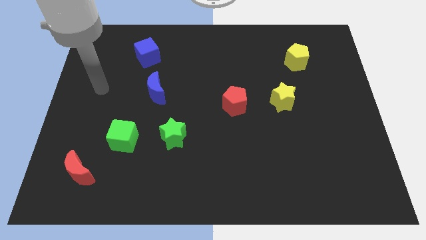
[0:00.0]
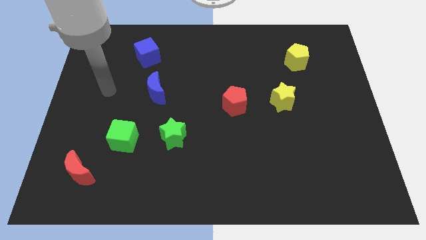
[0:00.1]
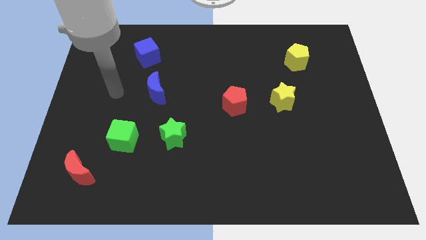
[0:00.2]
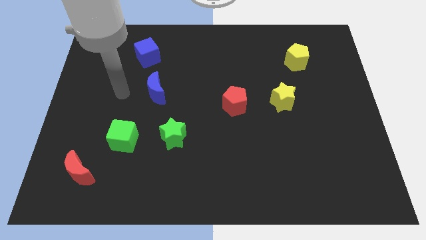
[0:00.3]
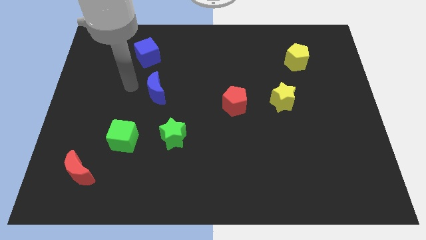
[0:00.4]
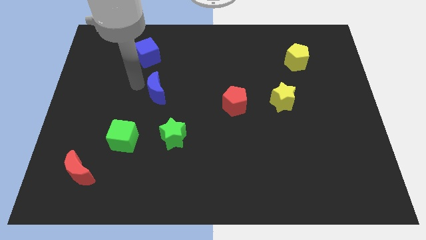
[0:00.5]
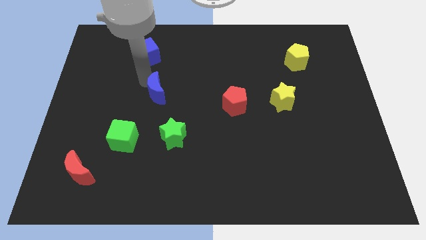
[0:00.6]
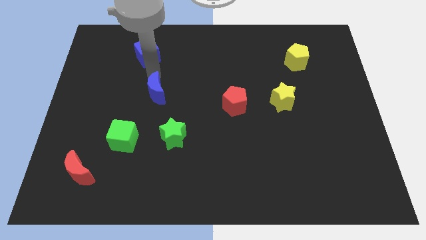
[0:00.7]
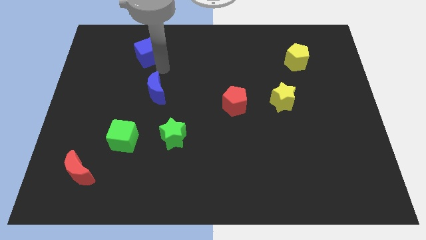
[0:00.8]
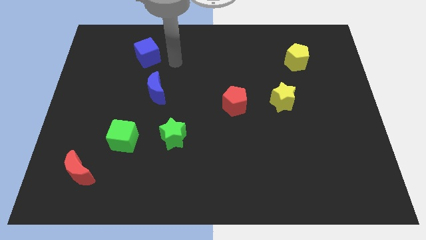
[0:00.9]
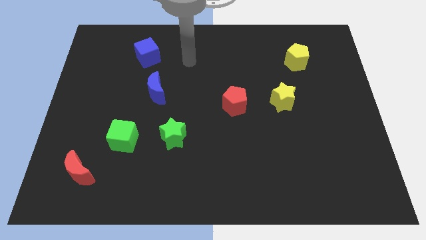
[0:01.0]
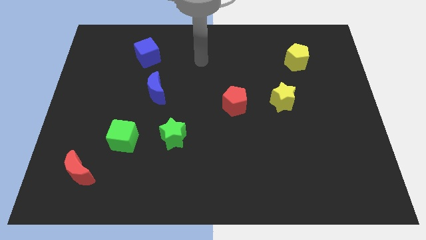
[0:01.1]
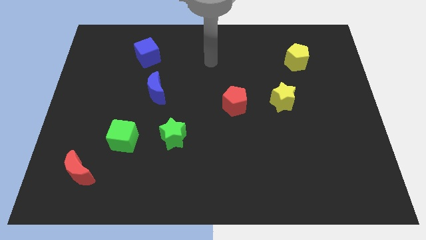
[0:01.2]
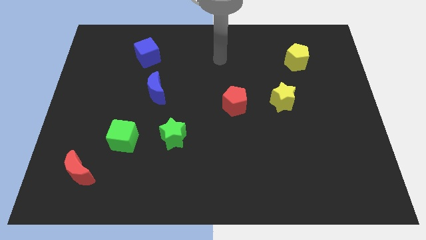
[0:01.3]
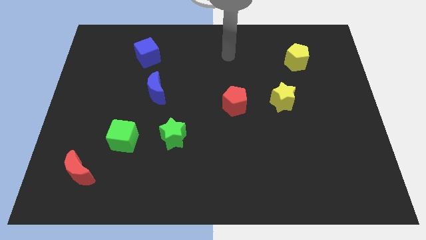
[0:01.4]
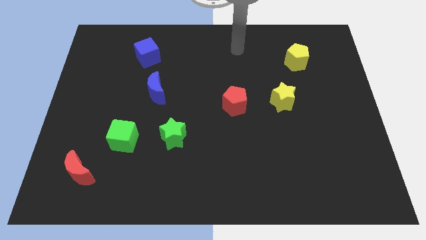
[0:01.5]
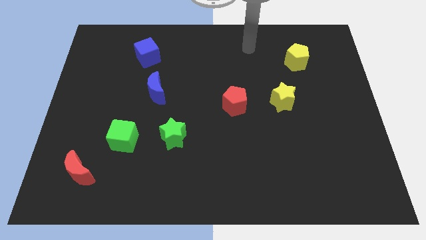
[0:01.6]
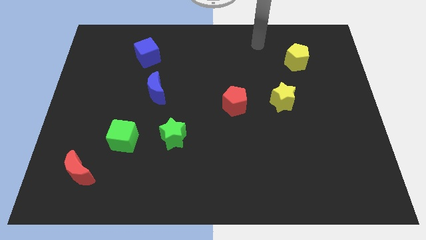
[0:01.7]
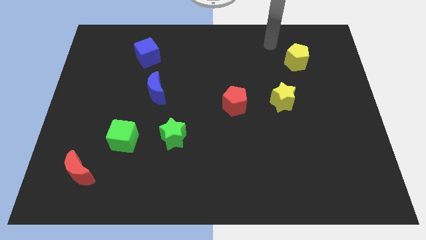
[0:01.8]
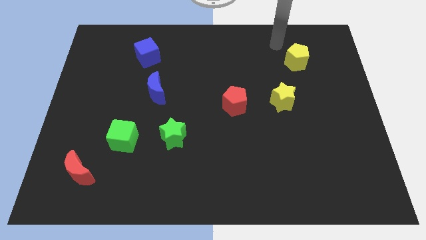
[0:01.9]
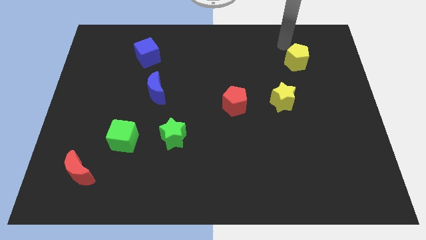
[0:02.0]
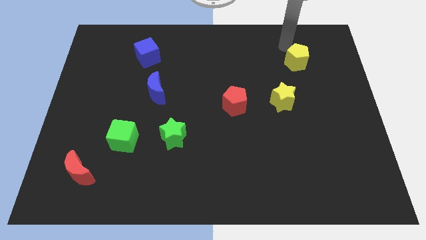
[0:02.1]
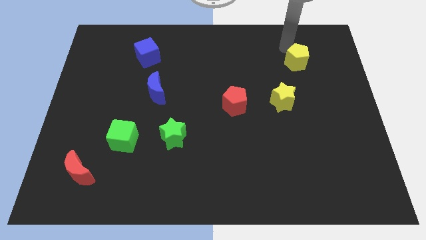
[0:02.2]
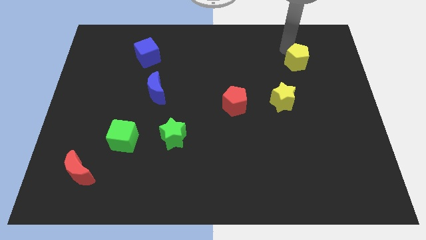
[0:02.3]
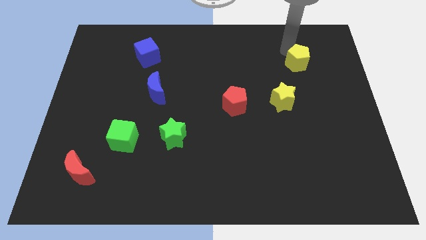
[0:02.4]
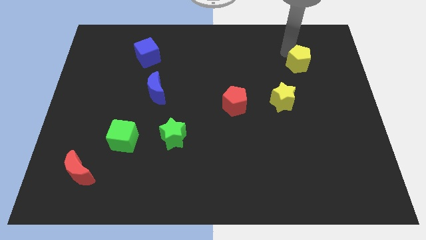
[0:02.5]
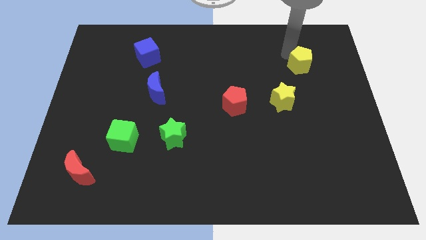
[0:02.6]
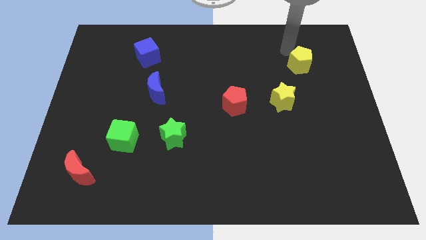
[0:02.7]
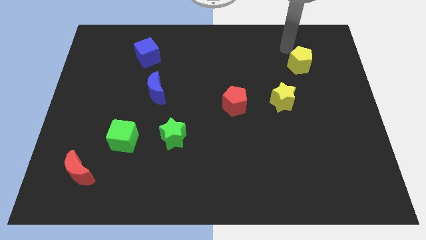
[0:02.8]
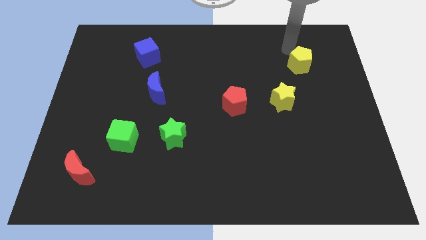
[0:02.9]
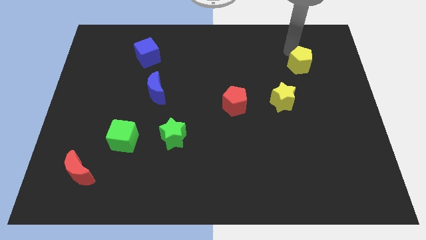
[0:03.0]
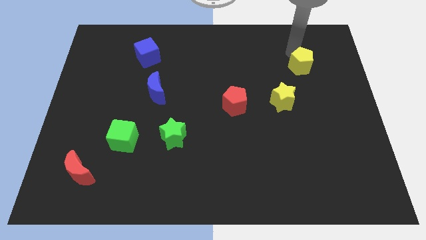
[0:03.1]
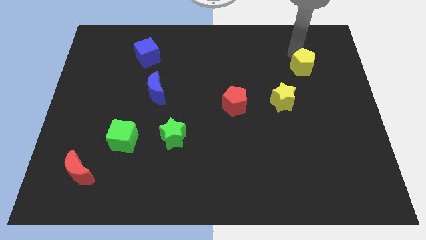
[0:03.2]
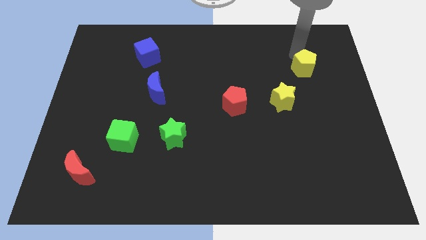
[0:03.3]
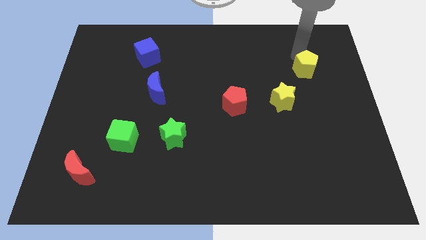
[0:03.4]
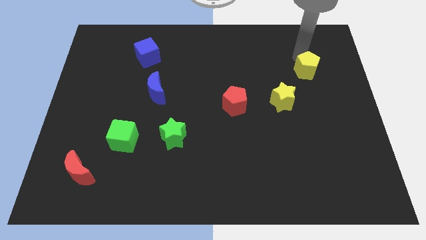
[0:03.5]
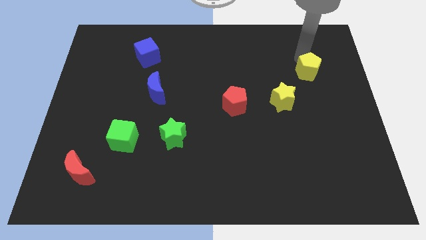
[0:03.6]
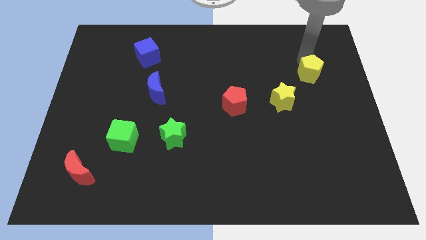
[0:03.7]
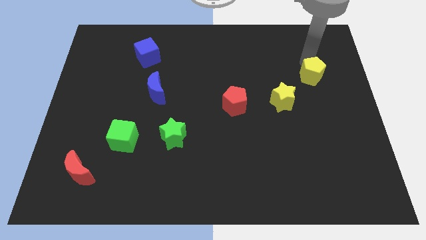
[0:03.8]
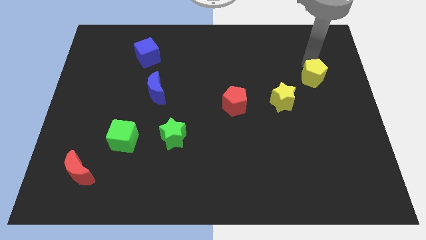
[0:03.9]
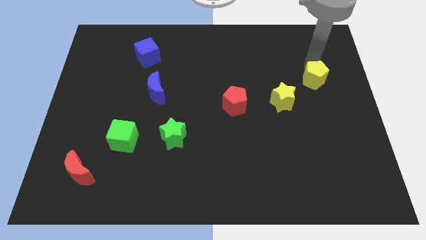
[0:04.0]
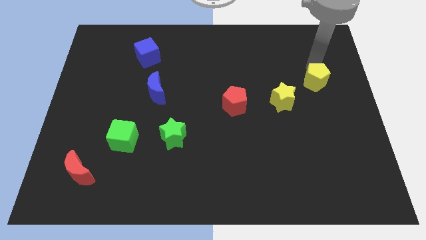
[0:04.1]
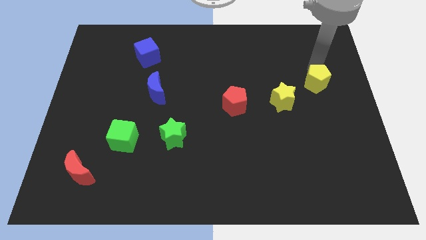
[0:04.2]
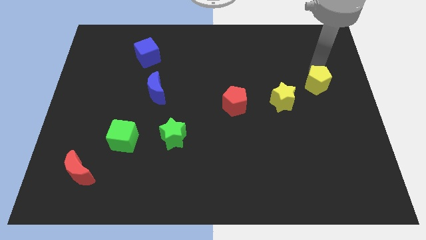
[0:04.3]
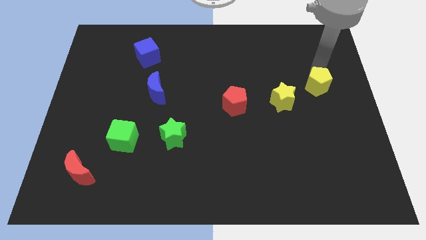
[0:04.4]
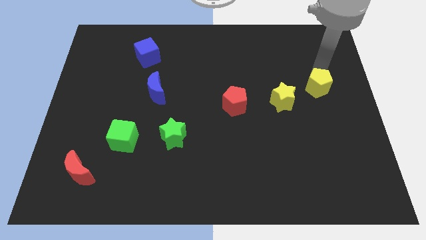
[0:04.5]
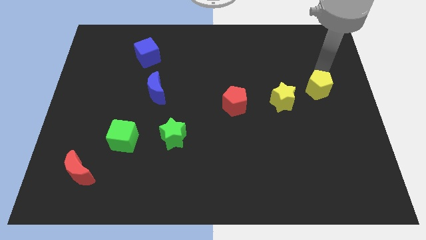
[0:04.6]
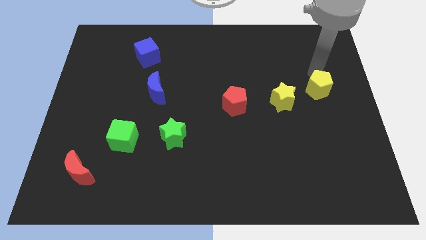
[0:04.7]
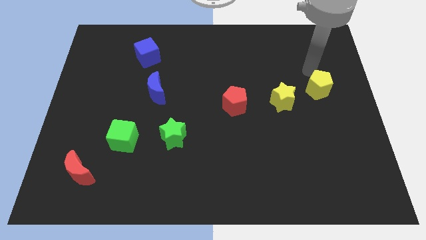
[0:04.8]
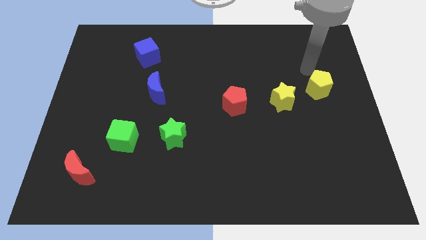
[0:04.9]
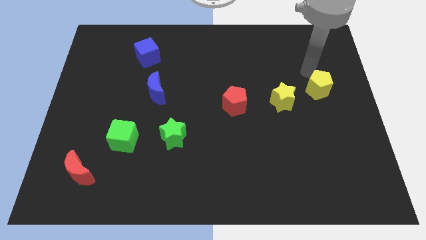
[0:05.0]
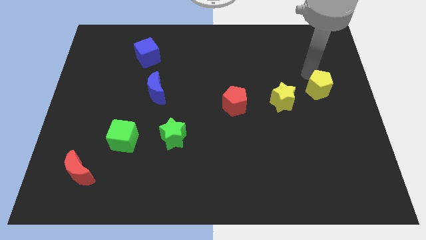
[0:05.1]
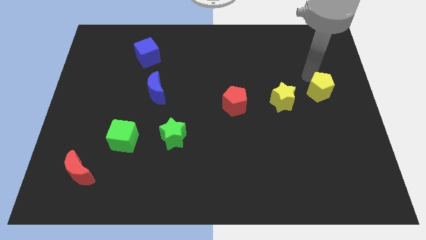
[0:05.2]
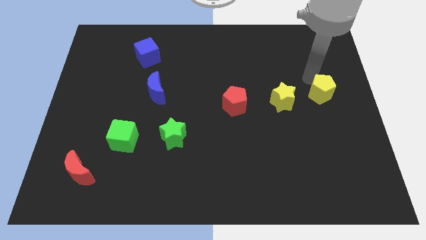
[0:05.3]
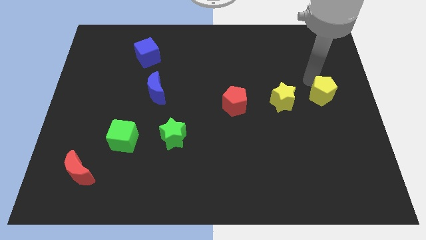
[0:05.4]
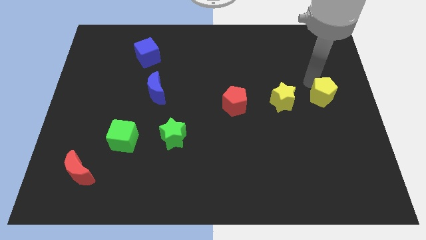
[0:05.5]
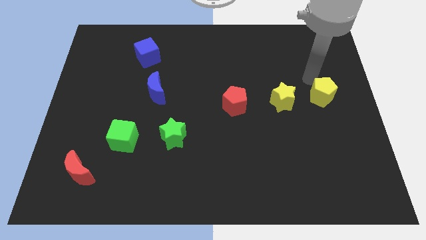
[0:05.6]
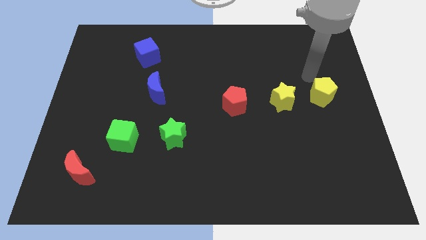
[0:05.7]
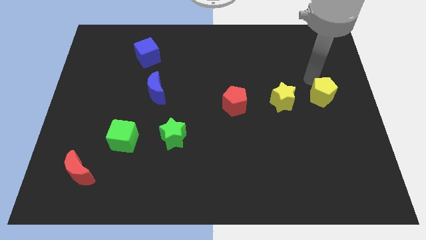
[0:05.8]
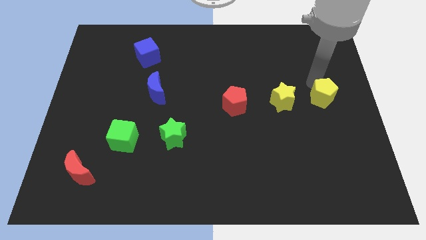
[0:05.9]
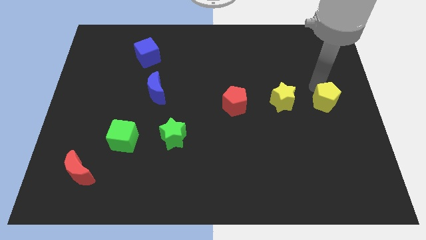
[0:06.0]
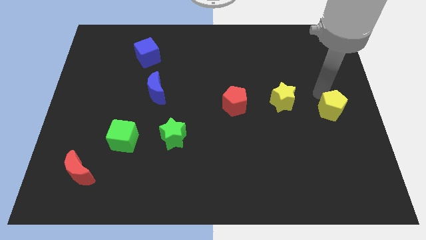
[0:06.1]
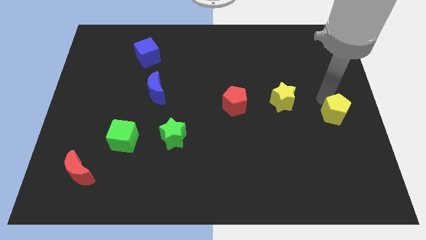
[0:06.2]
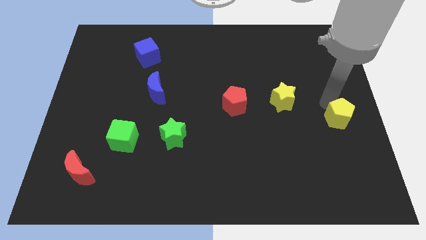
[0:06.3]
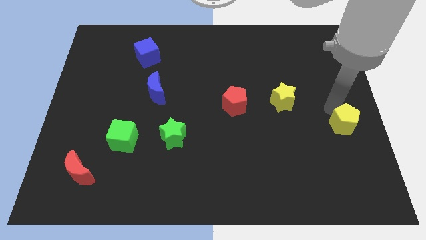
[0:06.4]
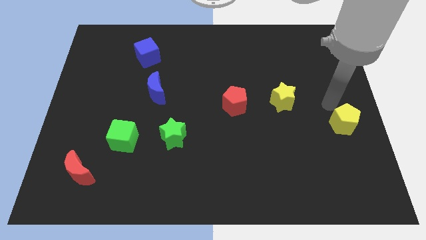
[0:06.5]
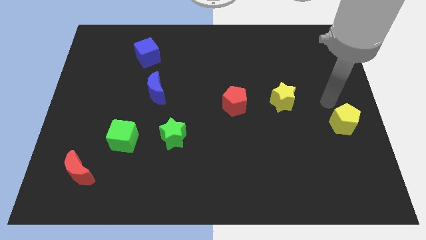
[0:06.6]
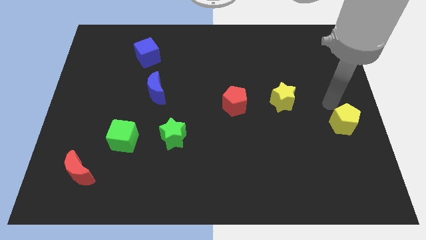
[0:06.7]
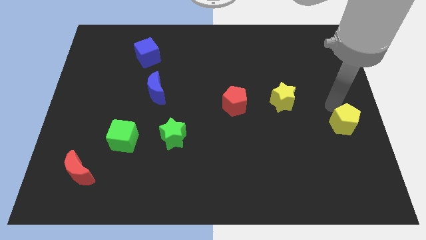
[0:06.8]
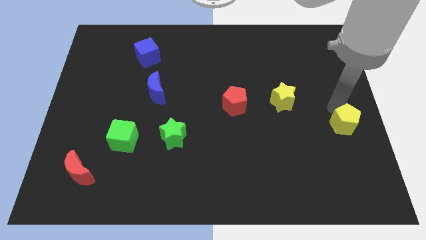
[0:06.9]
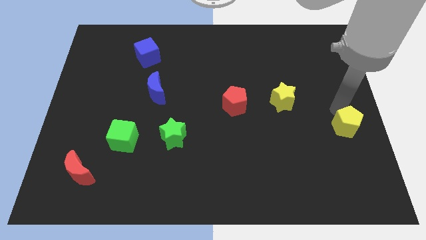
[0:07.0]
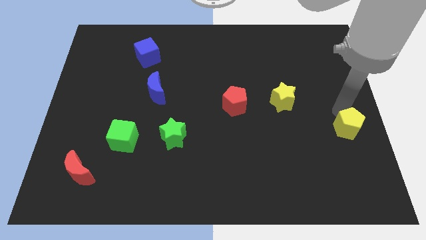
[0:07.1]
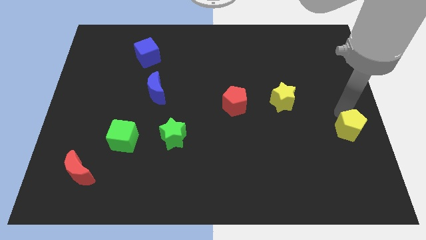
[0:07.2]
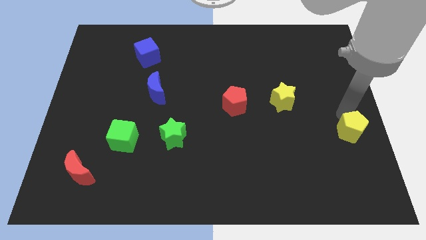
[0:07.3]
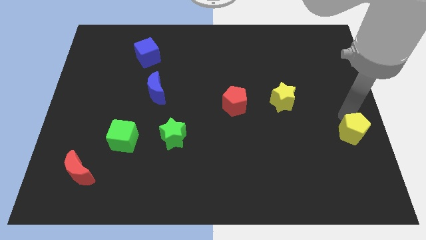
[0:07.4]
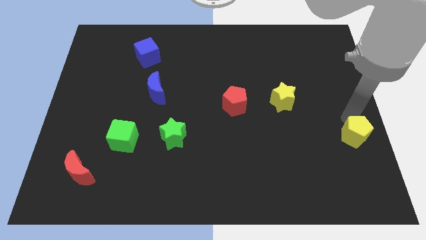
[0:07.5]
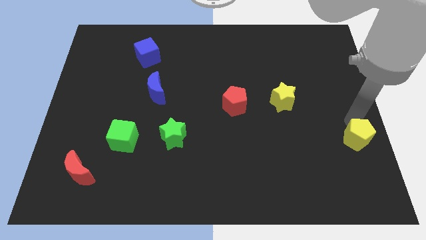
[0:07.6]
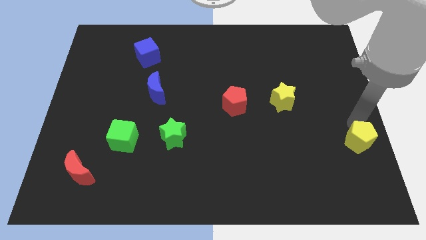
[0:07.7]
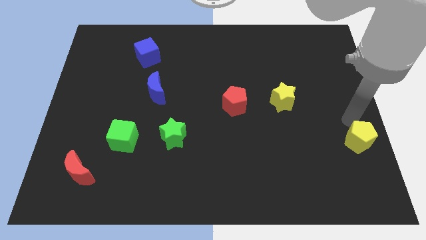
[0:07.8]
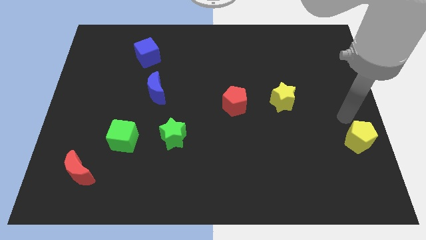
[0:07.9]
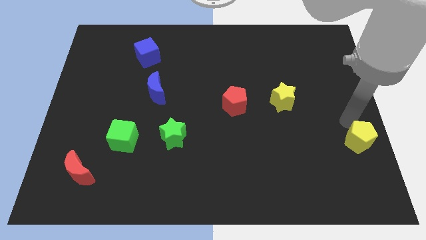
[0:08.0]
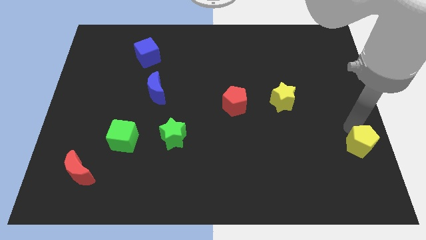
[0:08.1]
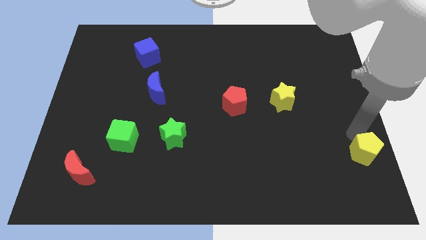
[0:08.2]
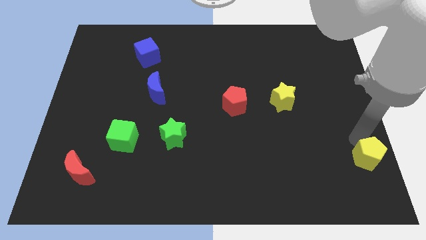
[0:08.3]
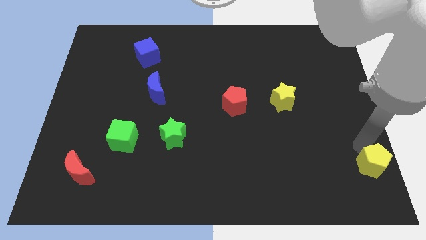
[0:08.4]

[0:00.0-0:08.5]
put the yellow pentagon to the bottom right corner
